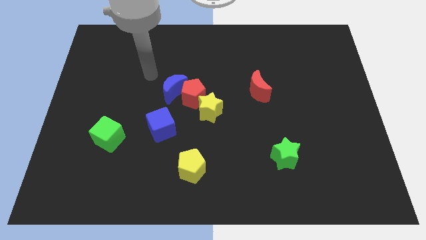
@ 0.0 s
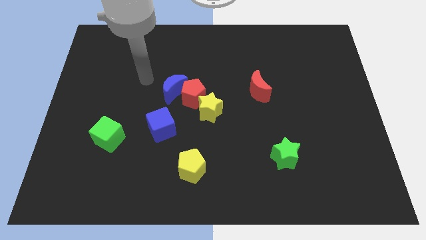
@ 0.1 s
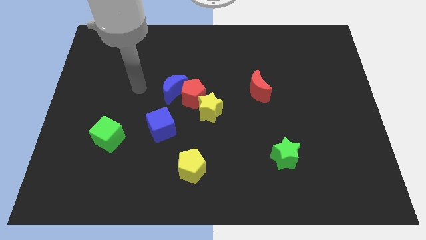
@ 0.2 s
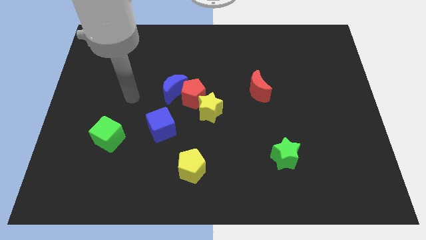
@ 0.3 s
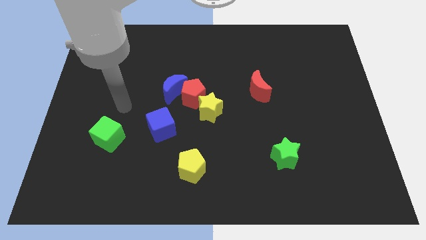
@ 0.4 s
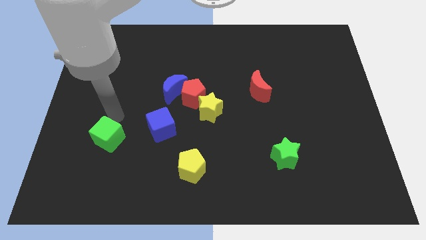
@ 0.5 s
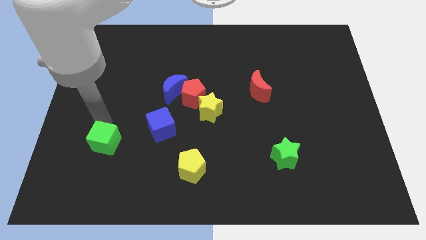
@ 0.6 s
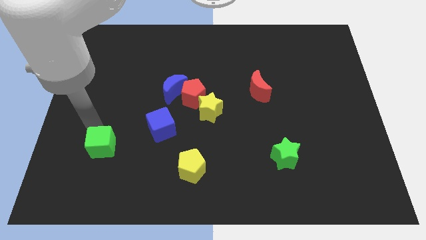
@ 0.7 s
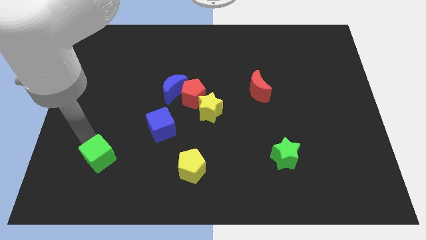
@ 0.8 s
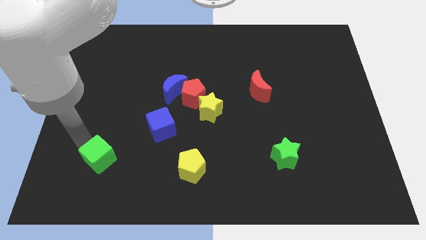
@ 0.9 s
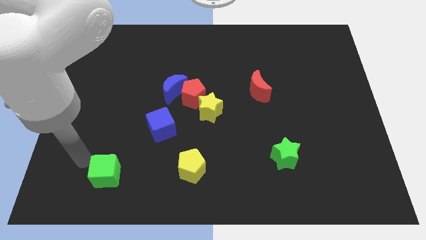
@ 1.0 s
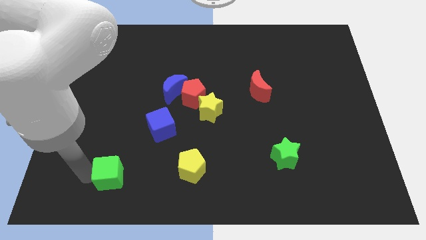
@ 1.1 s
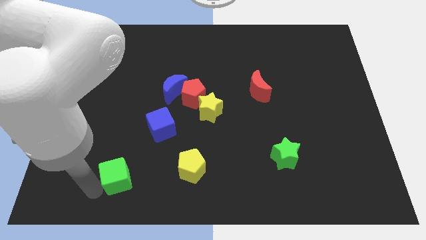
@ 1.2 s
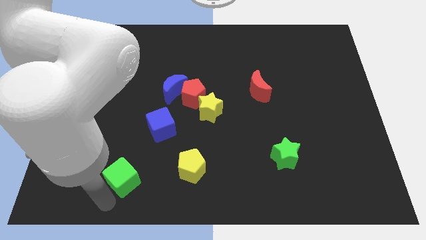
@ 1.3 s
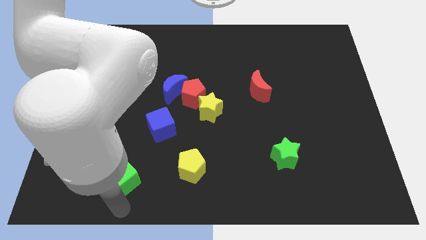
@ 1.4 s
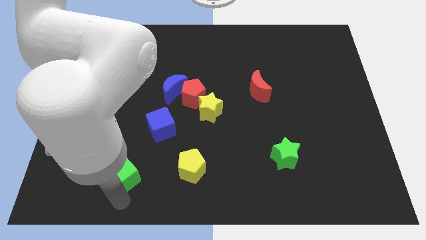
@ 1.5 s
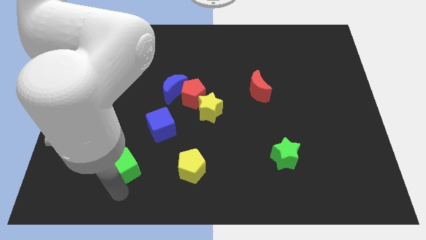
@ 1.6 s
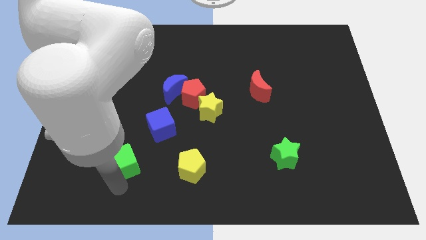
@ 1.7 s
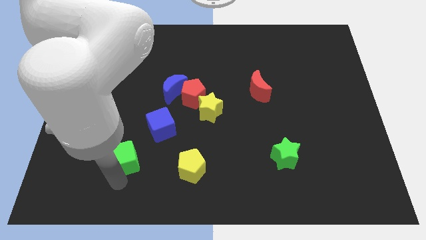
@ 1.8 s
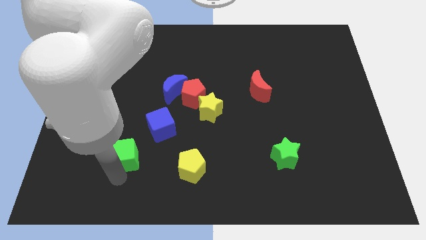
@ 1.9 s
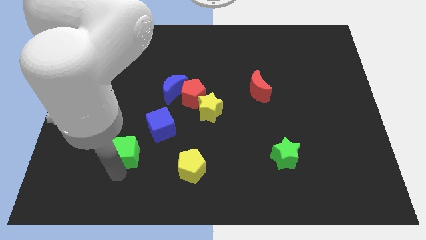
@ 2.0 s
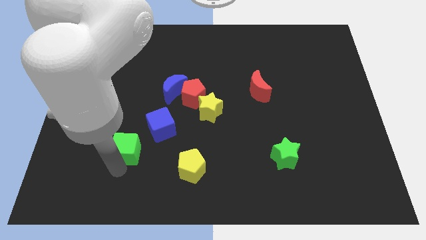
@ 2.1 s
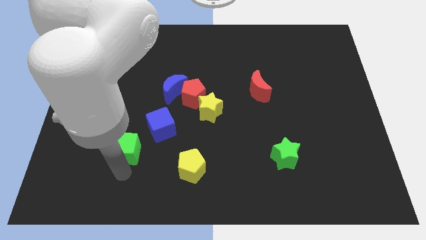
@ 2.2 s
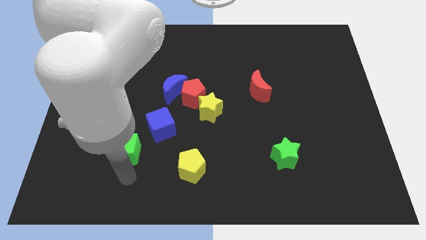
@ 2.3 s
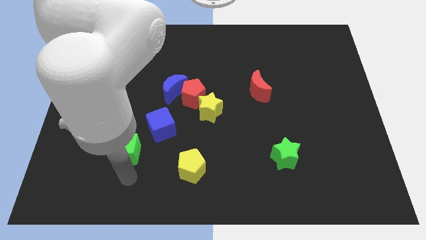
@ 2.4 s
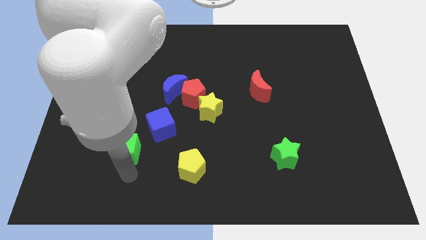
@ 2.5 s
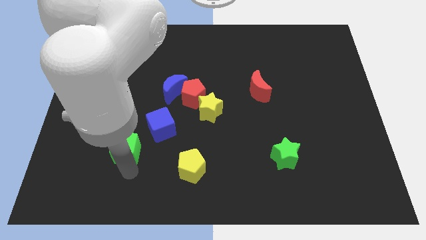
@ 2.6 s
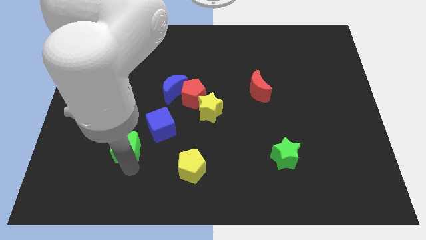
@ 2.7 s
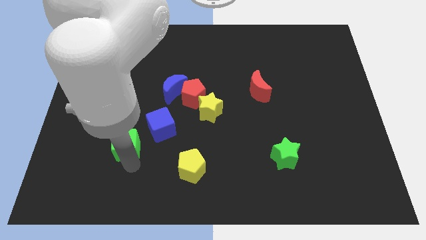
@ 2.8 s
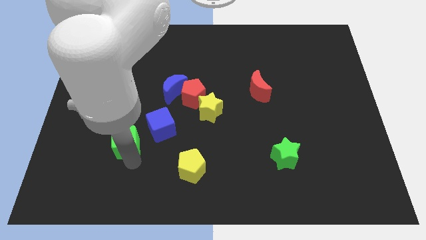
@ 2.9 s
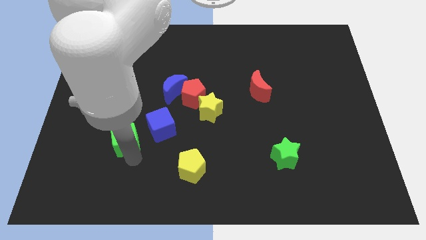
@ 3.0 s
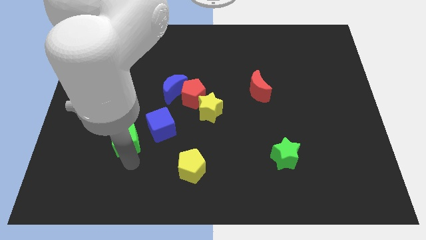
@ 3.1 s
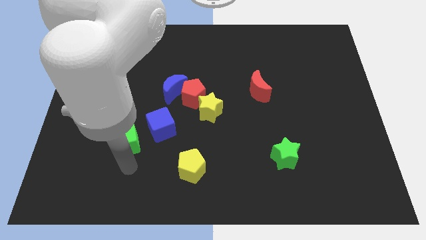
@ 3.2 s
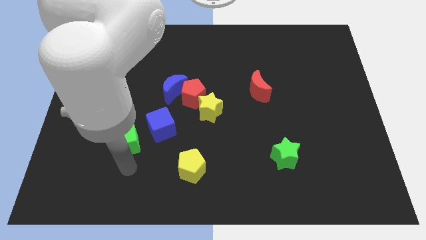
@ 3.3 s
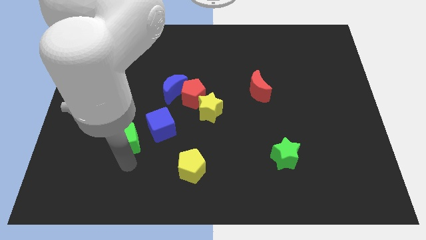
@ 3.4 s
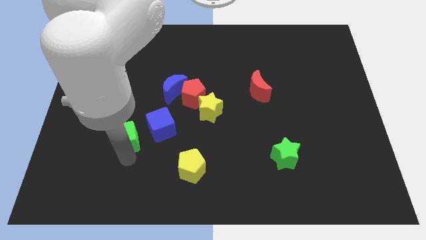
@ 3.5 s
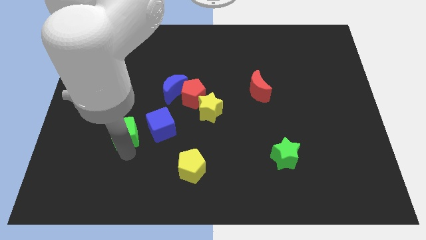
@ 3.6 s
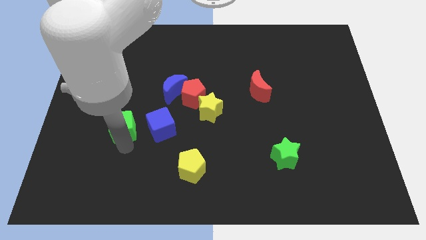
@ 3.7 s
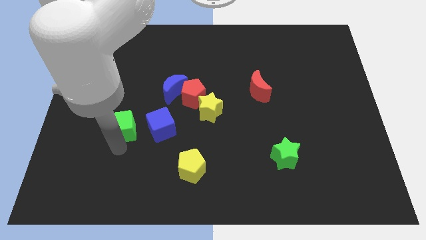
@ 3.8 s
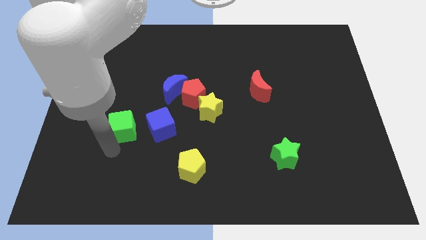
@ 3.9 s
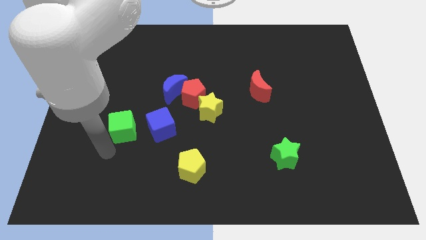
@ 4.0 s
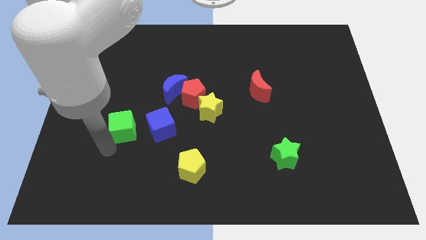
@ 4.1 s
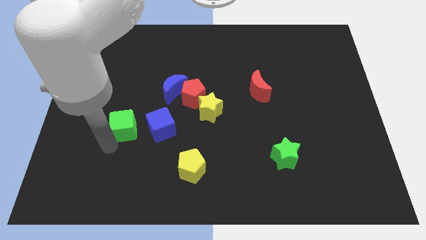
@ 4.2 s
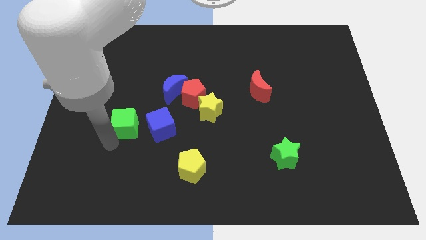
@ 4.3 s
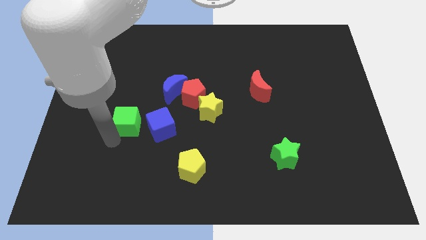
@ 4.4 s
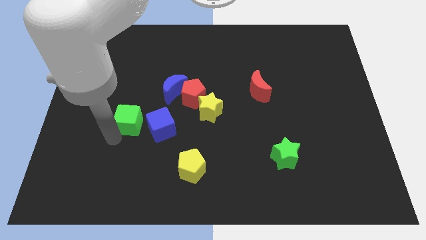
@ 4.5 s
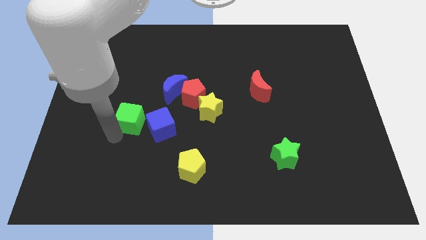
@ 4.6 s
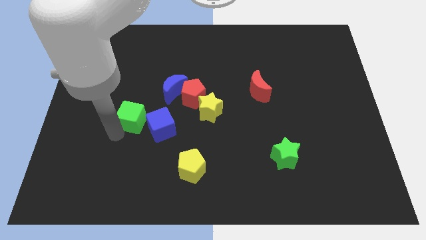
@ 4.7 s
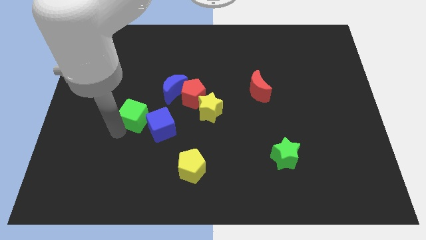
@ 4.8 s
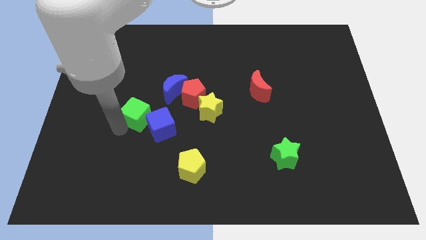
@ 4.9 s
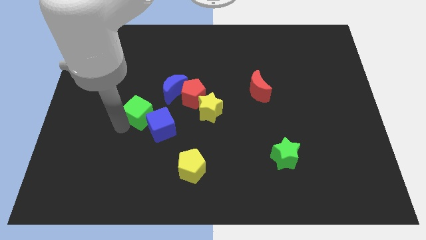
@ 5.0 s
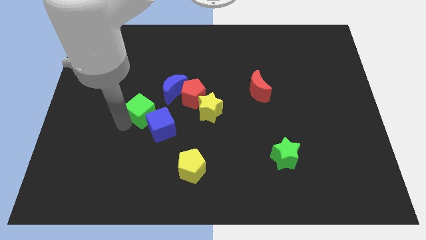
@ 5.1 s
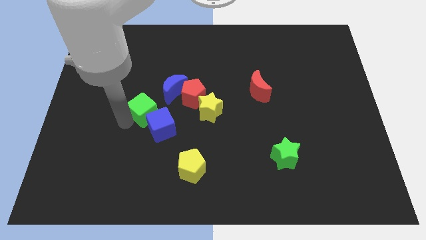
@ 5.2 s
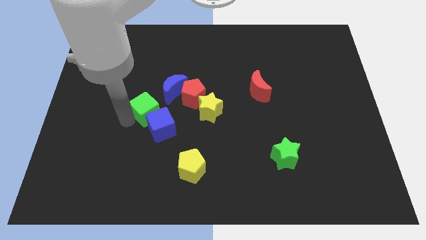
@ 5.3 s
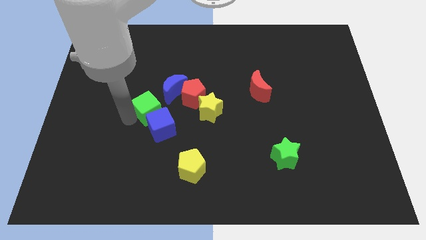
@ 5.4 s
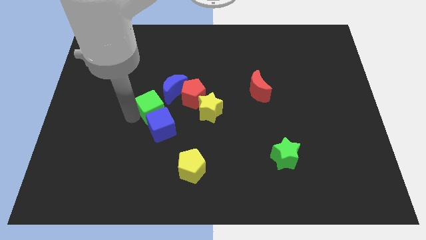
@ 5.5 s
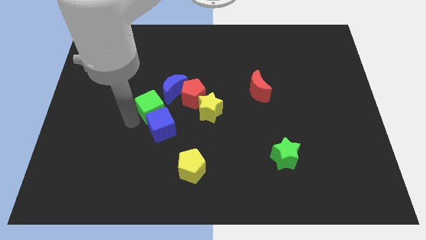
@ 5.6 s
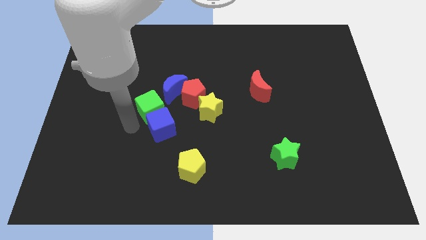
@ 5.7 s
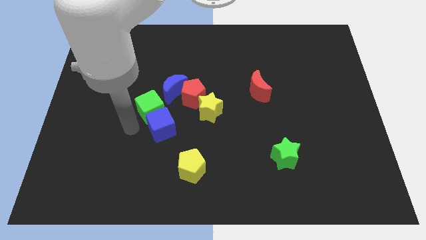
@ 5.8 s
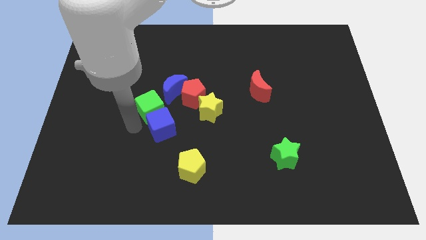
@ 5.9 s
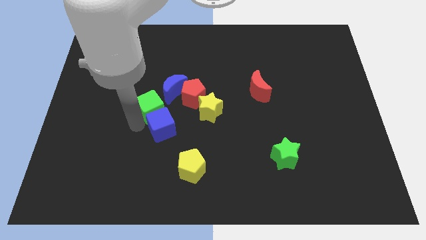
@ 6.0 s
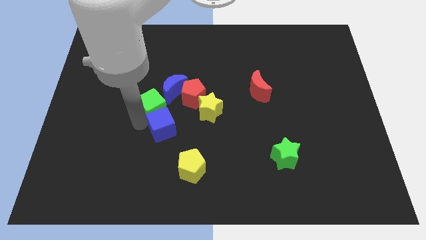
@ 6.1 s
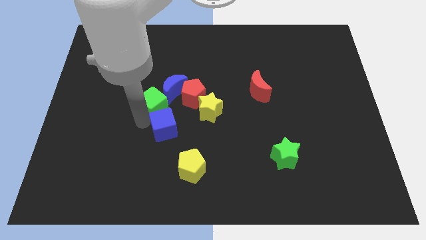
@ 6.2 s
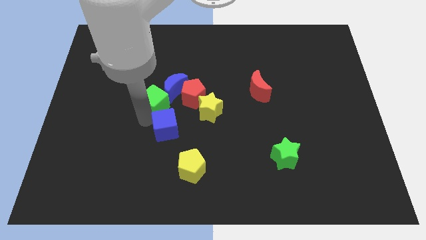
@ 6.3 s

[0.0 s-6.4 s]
push the green cube to the blue moon

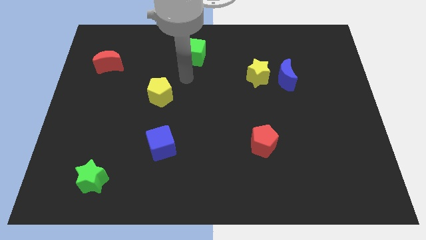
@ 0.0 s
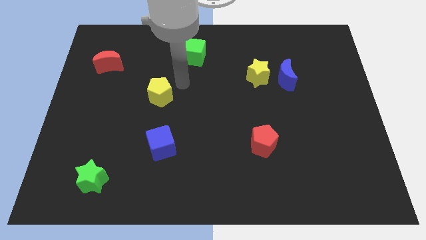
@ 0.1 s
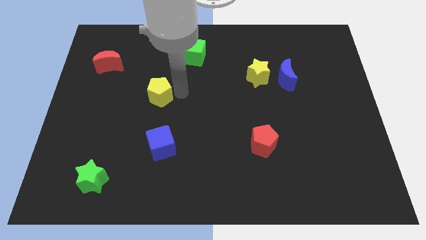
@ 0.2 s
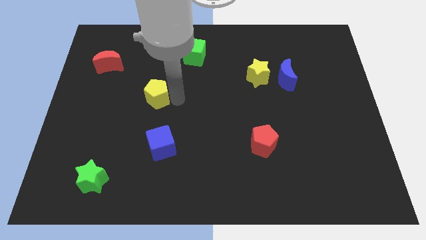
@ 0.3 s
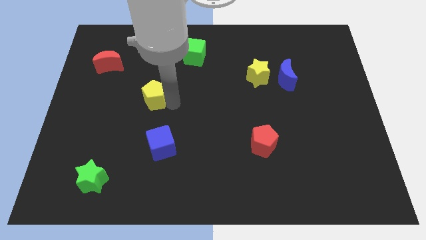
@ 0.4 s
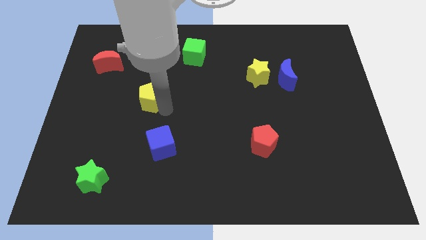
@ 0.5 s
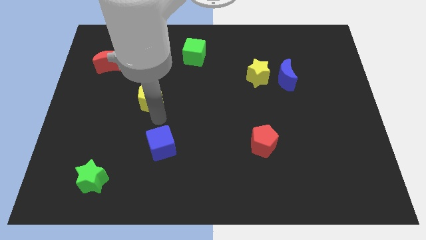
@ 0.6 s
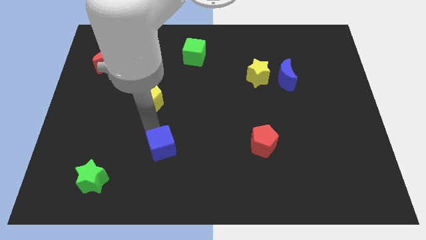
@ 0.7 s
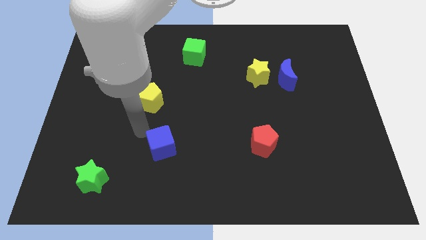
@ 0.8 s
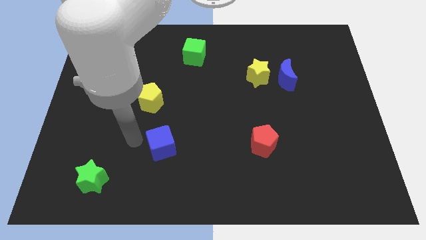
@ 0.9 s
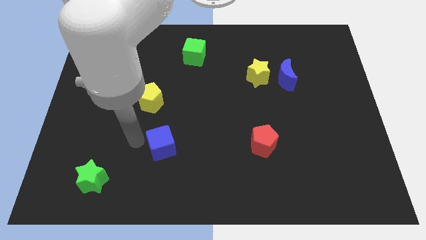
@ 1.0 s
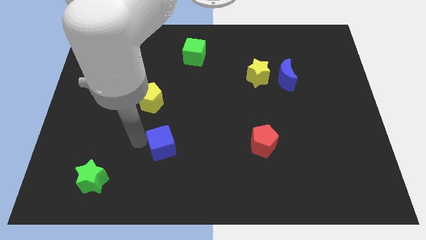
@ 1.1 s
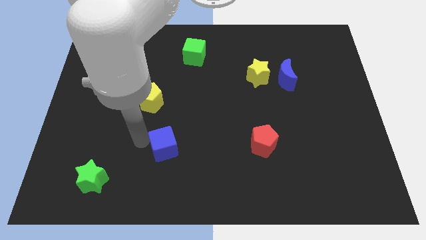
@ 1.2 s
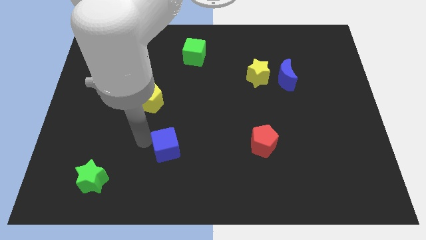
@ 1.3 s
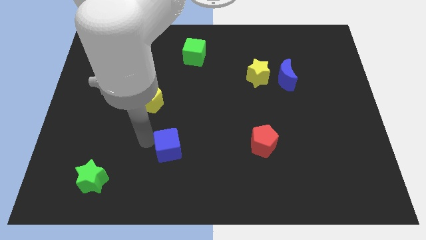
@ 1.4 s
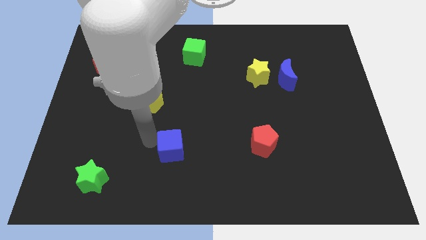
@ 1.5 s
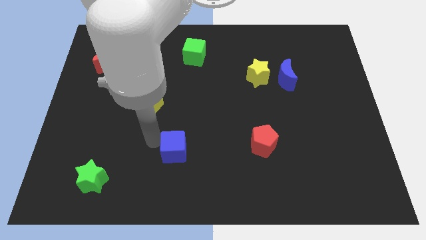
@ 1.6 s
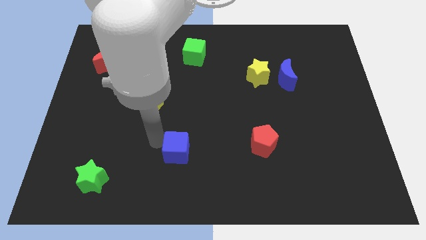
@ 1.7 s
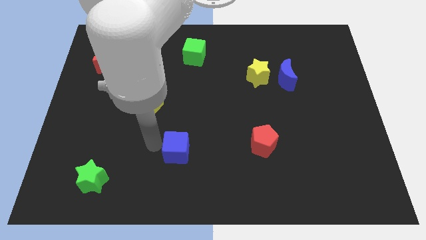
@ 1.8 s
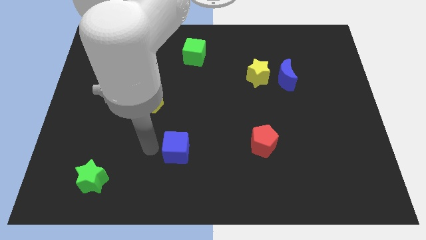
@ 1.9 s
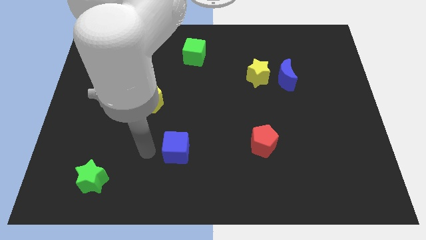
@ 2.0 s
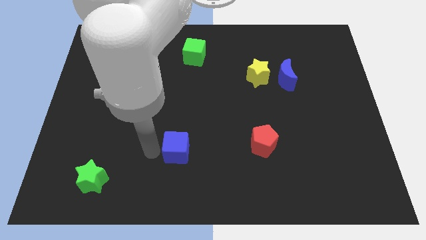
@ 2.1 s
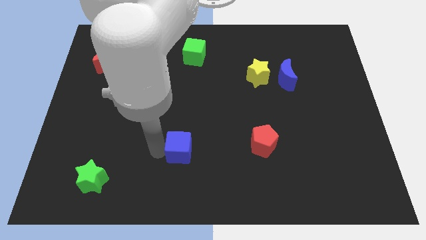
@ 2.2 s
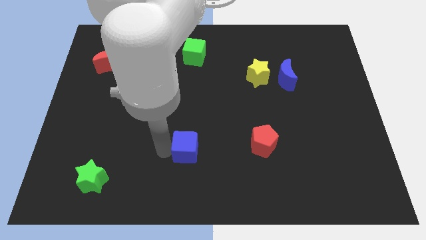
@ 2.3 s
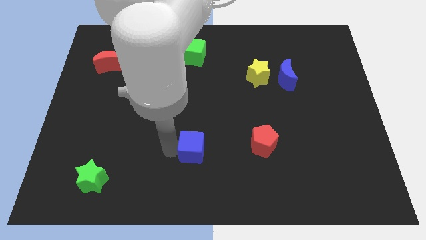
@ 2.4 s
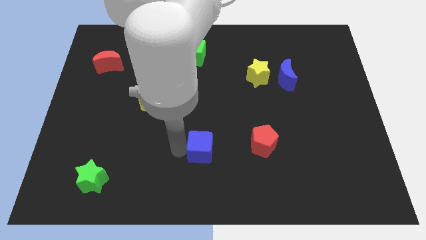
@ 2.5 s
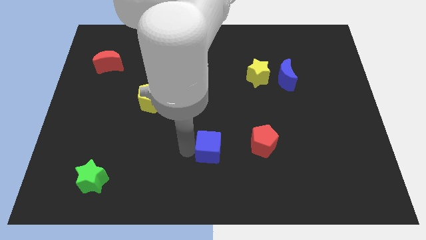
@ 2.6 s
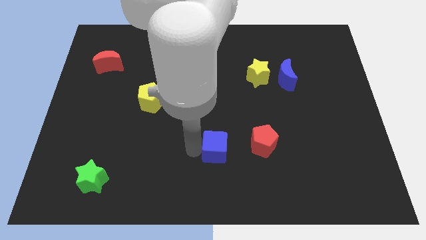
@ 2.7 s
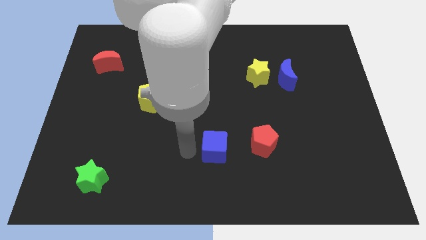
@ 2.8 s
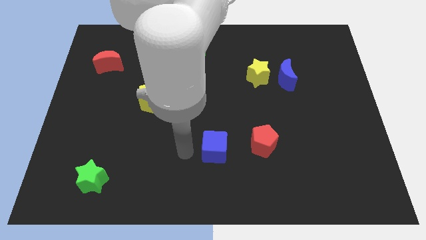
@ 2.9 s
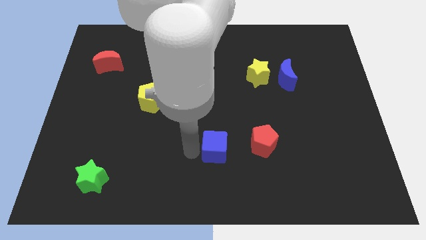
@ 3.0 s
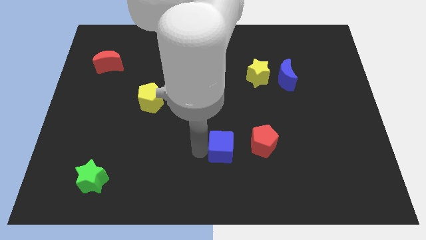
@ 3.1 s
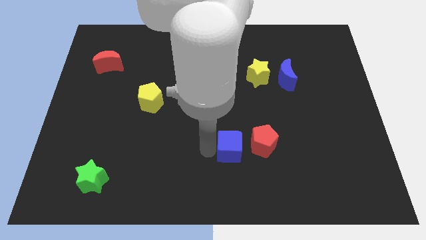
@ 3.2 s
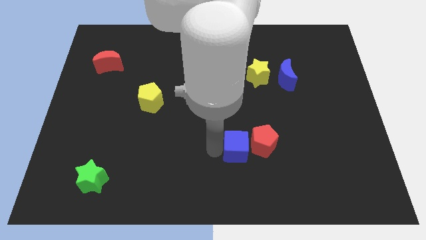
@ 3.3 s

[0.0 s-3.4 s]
slide the blue cube close to the red pentagon
